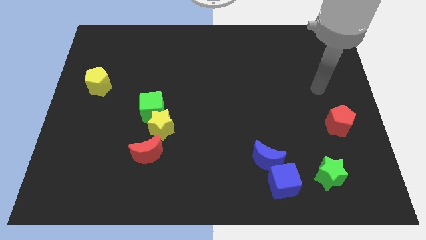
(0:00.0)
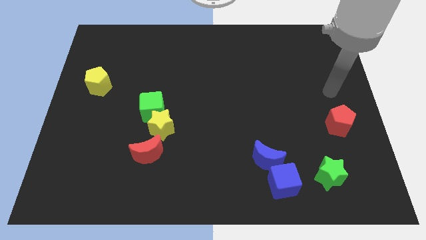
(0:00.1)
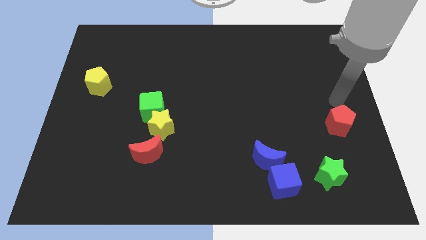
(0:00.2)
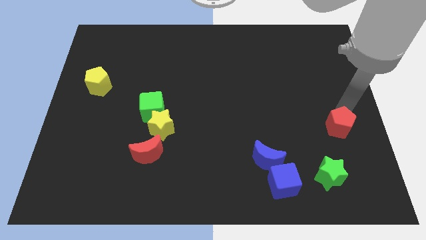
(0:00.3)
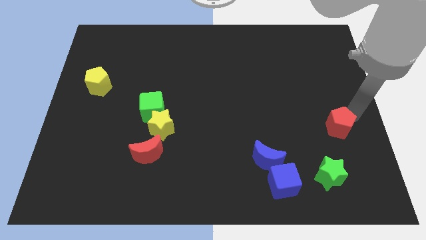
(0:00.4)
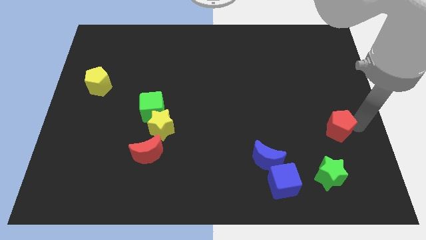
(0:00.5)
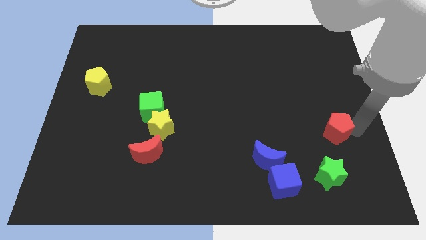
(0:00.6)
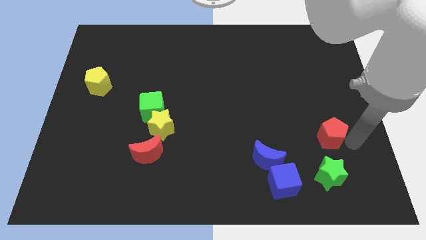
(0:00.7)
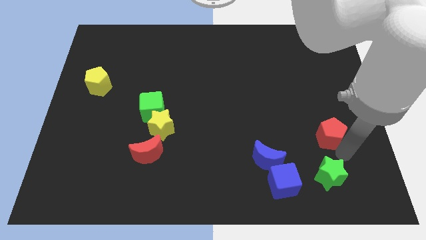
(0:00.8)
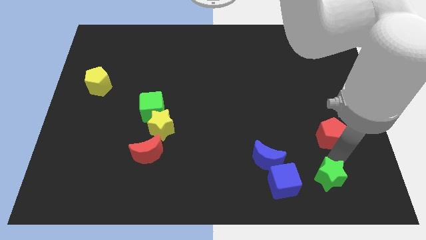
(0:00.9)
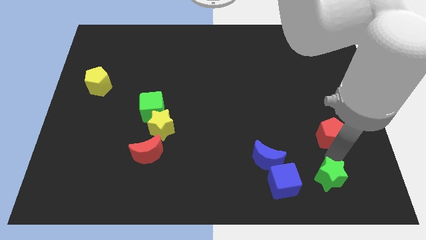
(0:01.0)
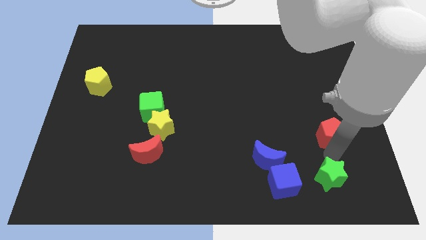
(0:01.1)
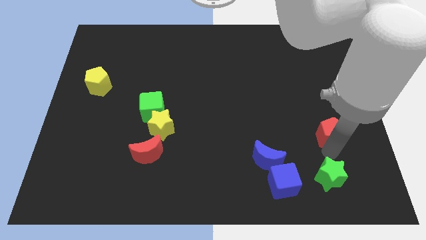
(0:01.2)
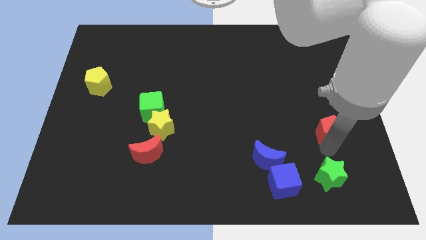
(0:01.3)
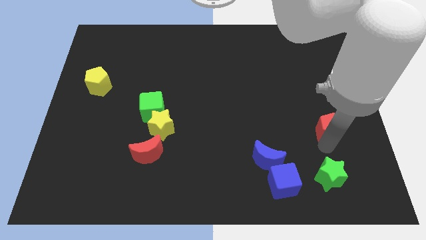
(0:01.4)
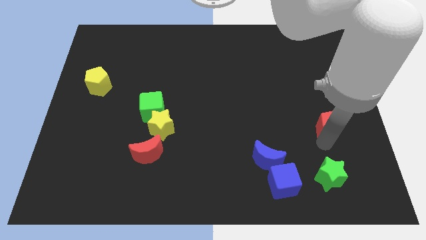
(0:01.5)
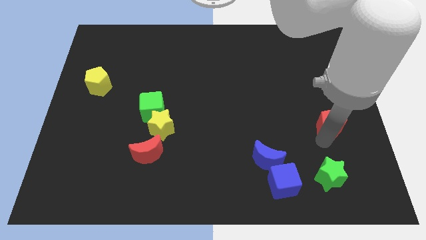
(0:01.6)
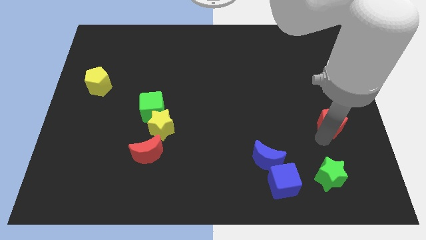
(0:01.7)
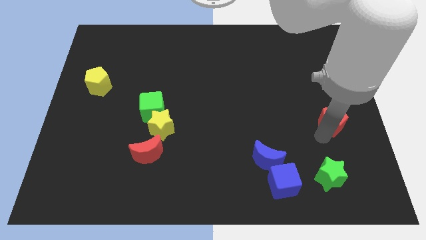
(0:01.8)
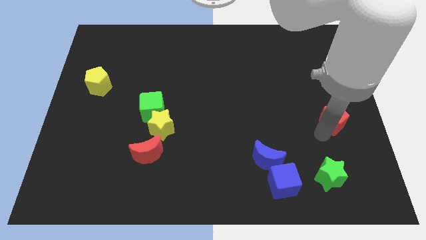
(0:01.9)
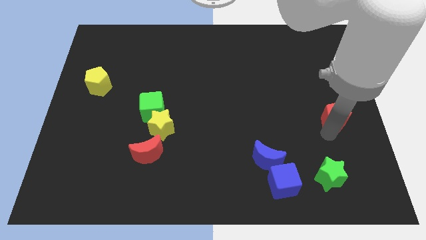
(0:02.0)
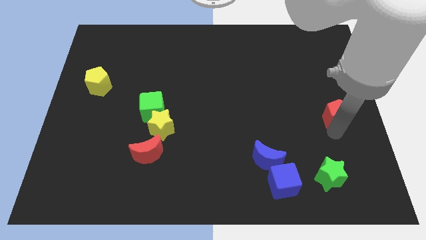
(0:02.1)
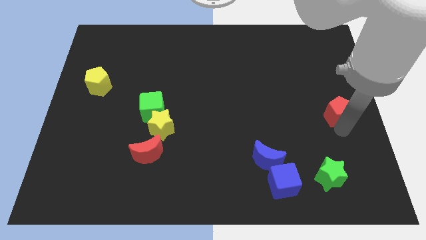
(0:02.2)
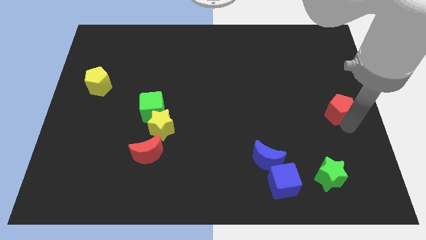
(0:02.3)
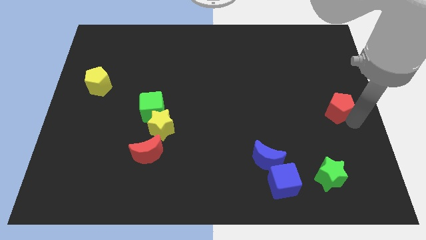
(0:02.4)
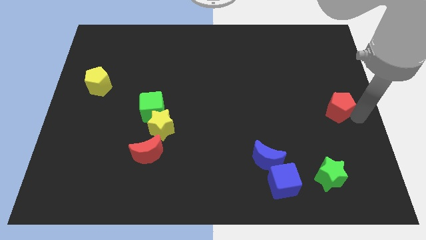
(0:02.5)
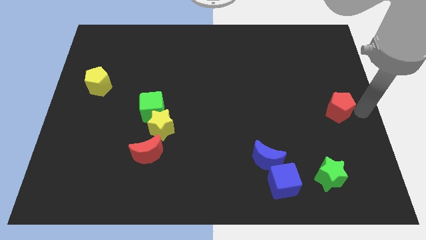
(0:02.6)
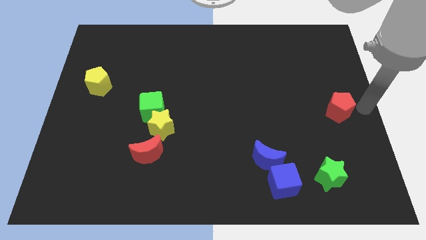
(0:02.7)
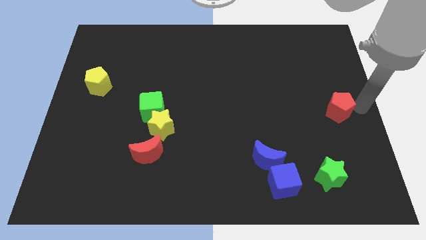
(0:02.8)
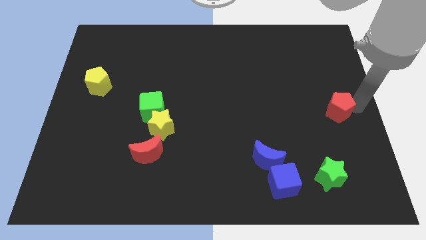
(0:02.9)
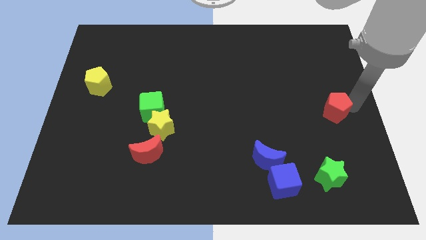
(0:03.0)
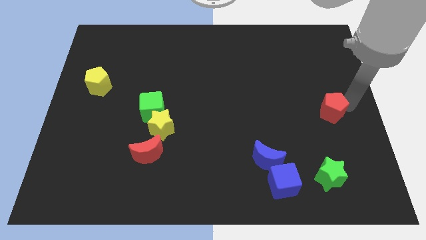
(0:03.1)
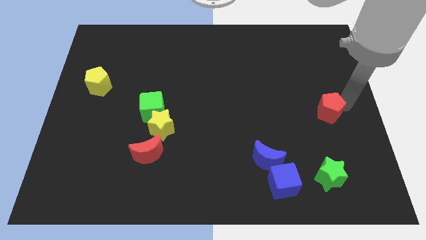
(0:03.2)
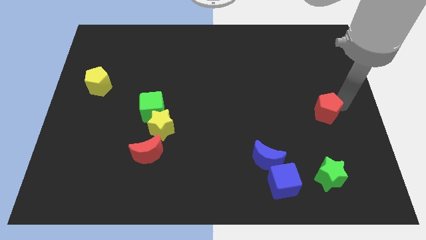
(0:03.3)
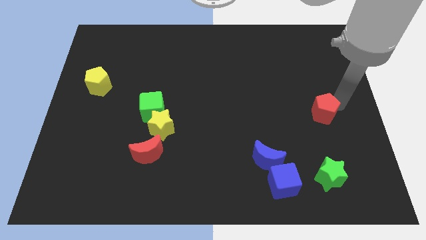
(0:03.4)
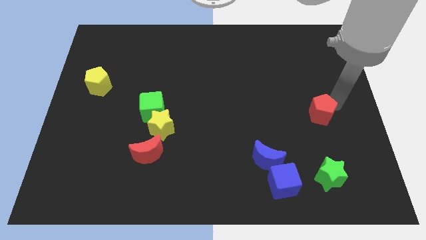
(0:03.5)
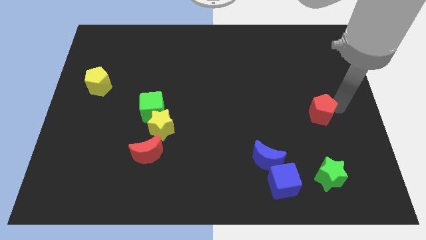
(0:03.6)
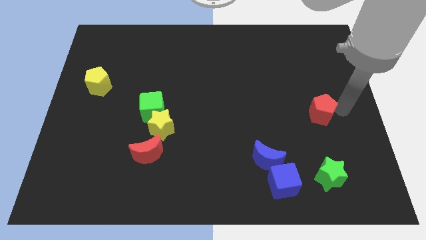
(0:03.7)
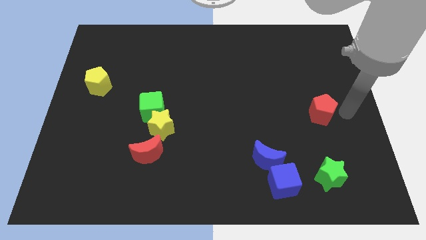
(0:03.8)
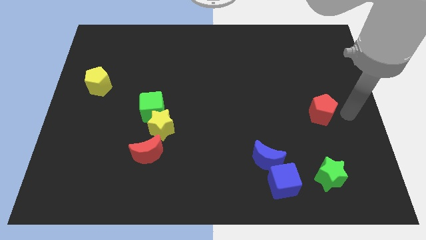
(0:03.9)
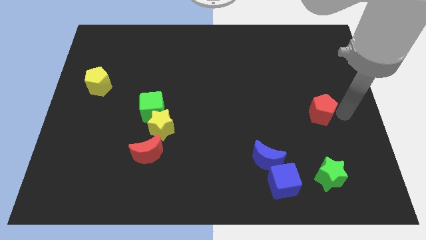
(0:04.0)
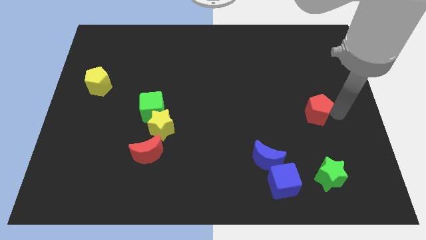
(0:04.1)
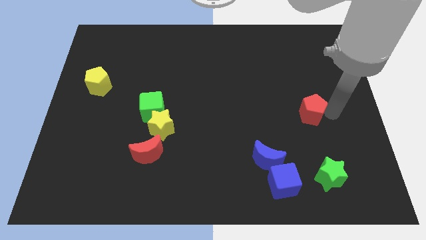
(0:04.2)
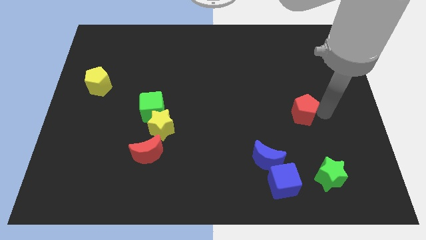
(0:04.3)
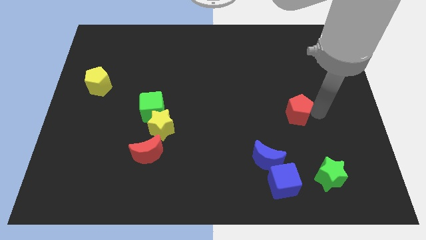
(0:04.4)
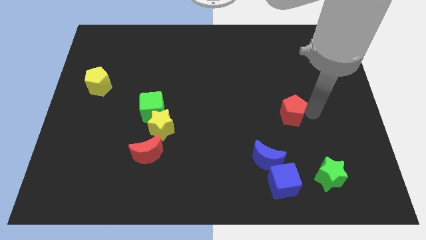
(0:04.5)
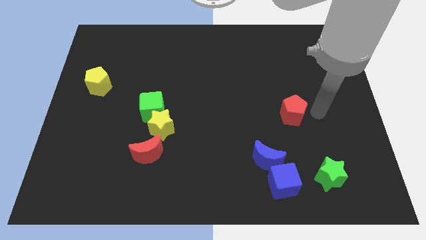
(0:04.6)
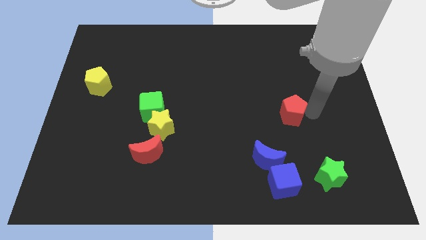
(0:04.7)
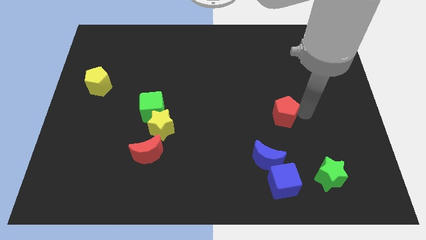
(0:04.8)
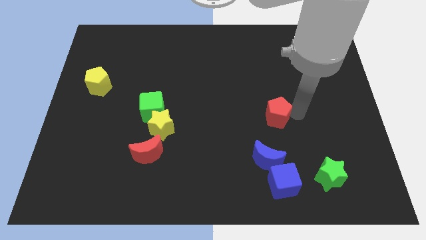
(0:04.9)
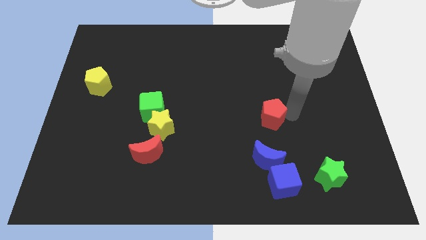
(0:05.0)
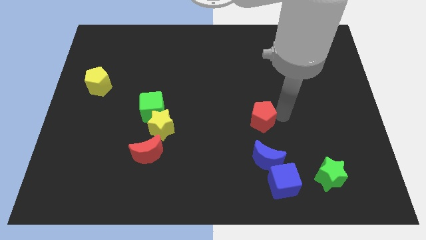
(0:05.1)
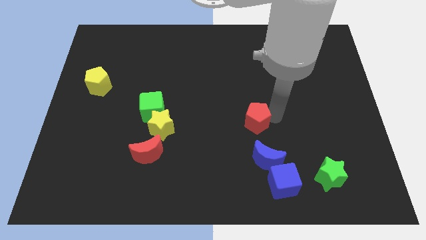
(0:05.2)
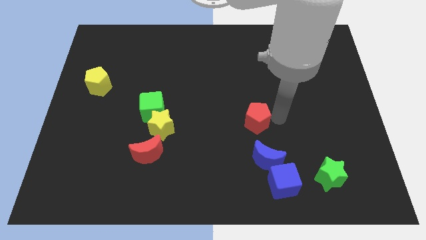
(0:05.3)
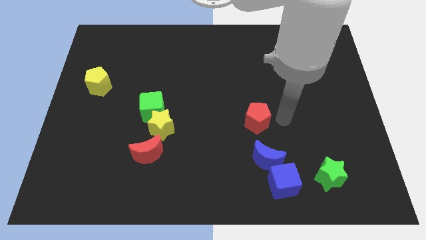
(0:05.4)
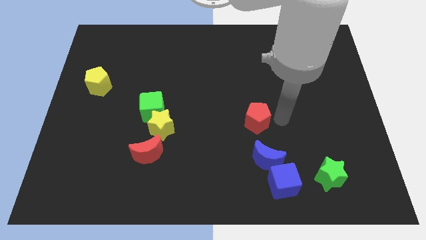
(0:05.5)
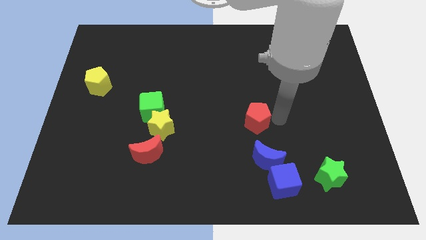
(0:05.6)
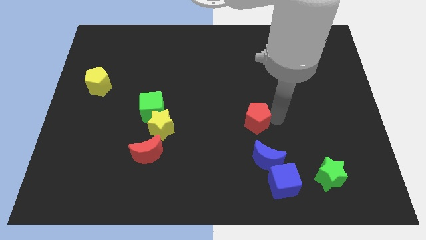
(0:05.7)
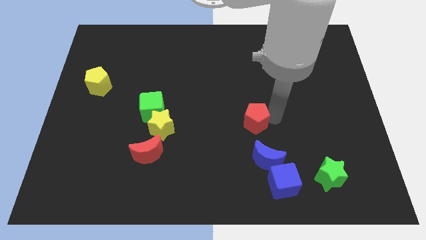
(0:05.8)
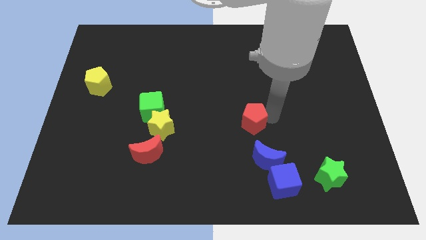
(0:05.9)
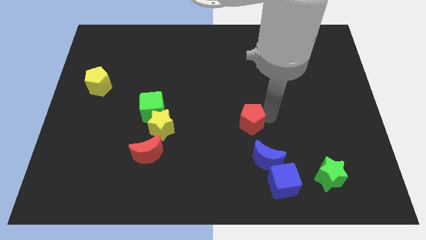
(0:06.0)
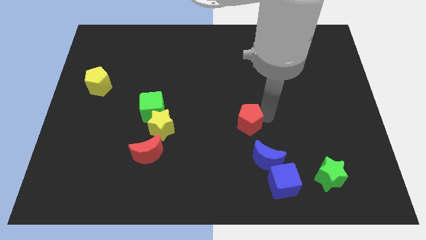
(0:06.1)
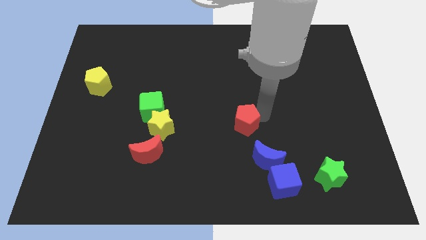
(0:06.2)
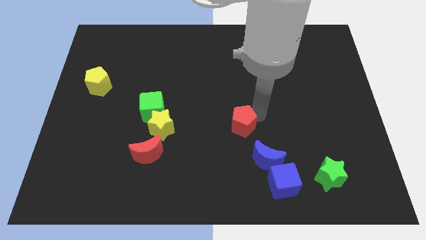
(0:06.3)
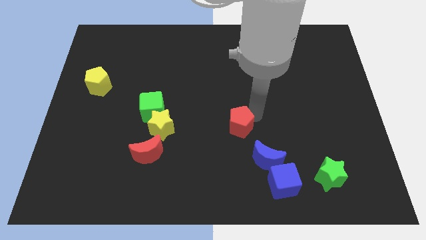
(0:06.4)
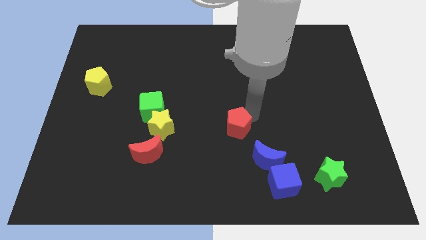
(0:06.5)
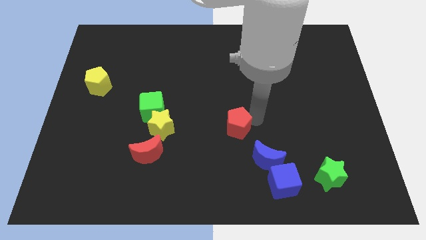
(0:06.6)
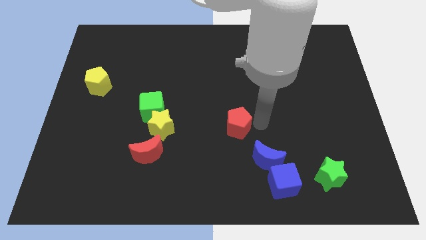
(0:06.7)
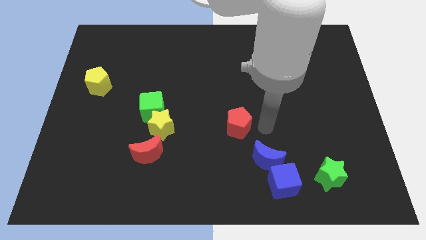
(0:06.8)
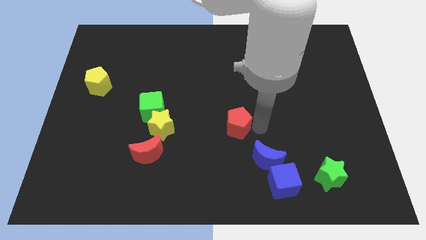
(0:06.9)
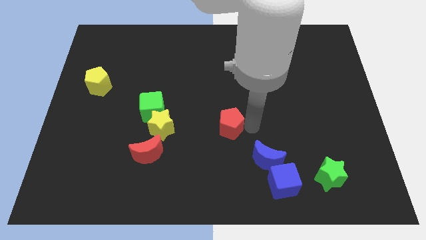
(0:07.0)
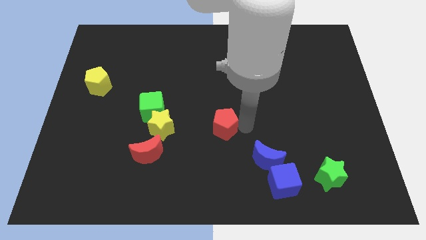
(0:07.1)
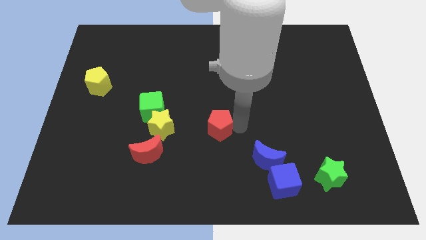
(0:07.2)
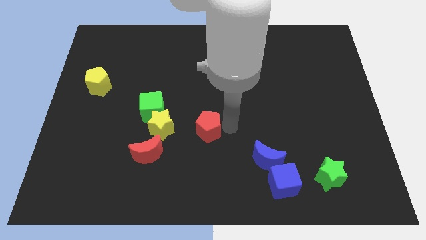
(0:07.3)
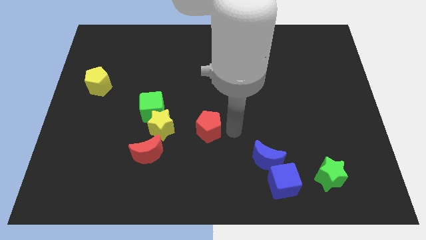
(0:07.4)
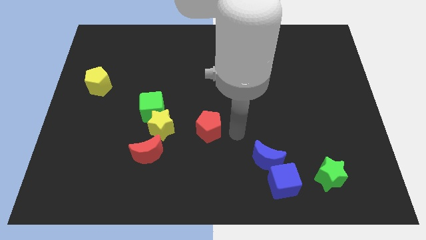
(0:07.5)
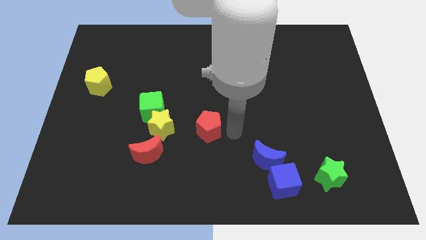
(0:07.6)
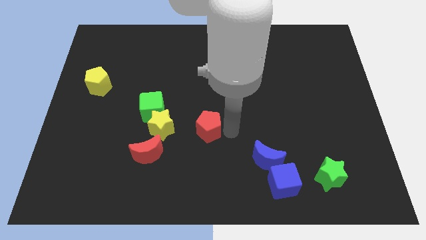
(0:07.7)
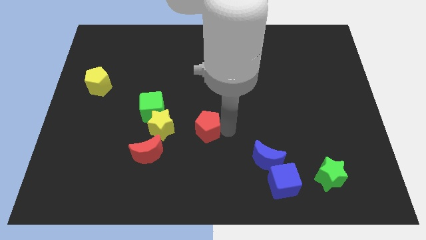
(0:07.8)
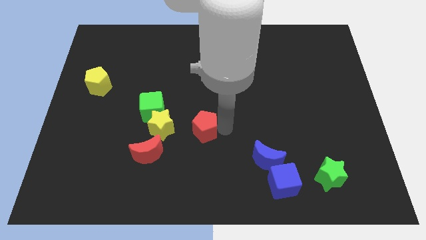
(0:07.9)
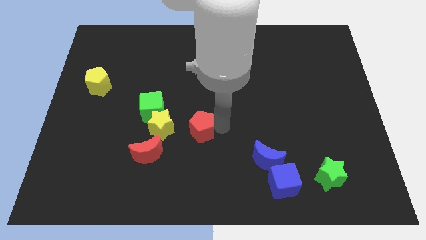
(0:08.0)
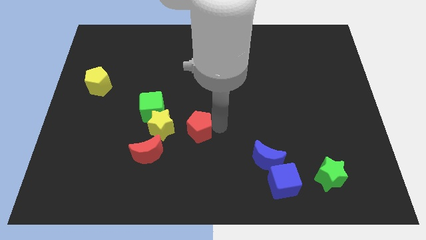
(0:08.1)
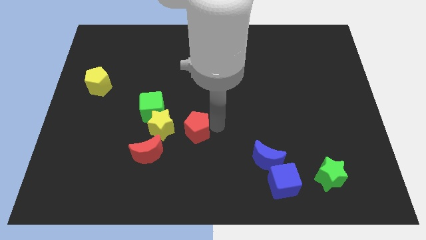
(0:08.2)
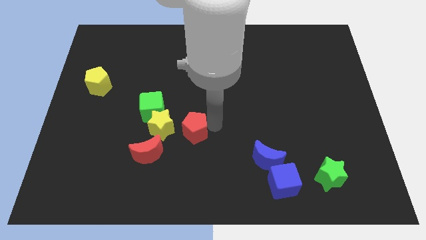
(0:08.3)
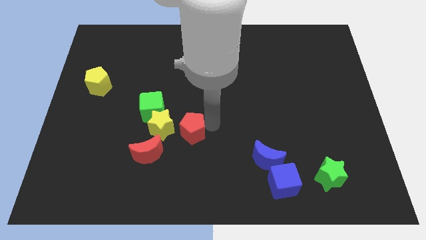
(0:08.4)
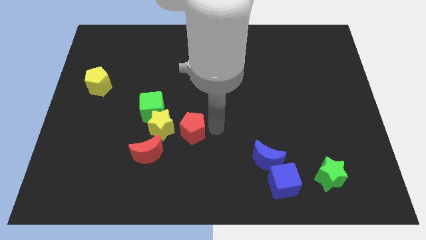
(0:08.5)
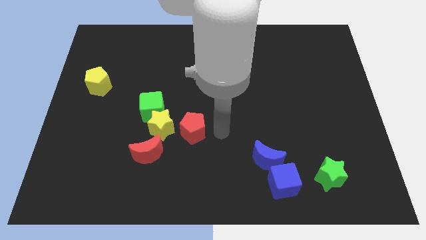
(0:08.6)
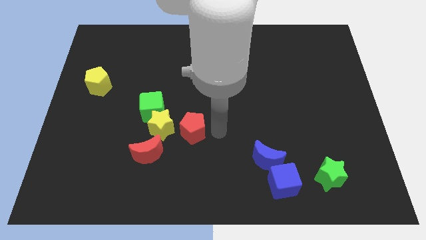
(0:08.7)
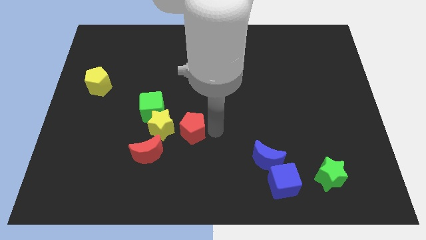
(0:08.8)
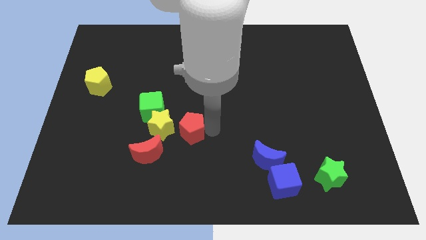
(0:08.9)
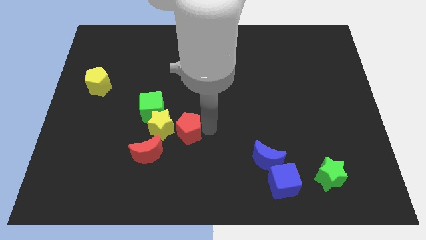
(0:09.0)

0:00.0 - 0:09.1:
push the red pentagon next to the yellow star
